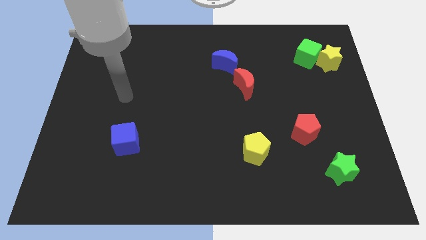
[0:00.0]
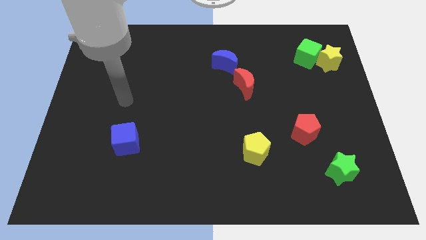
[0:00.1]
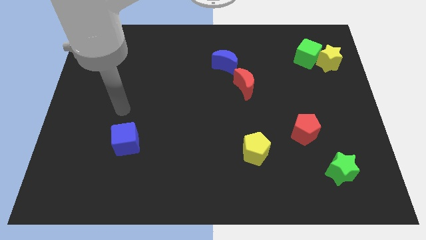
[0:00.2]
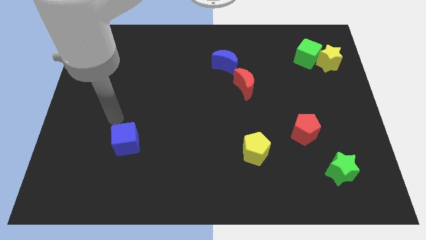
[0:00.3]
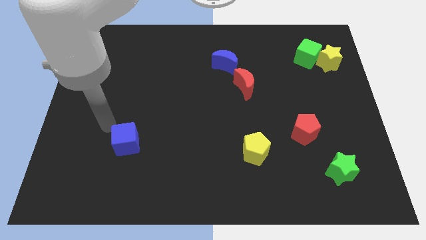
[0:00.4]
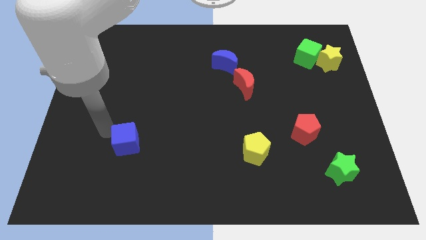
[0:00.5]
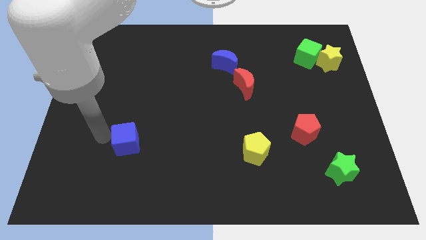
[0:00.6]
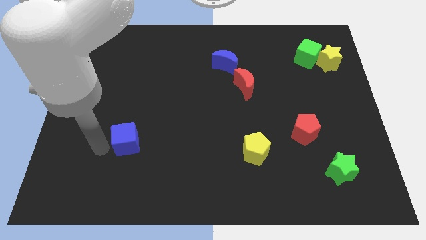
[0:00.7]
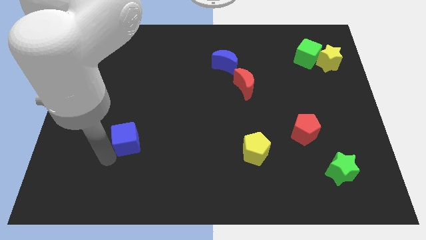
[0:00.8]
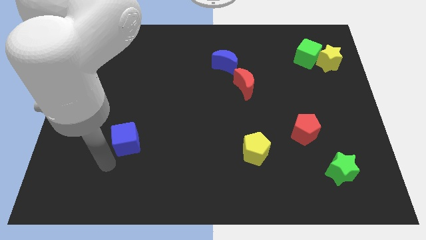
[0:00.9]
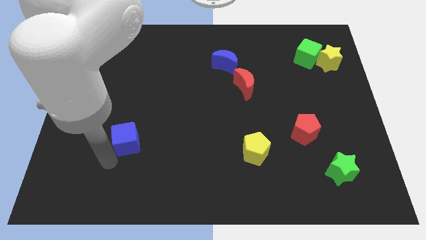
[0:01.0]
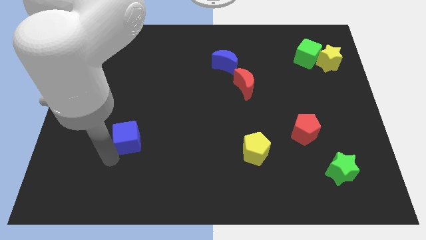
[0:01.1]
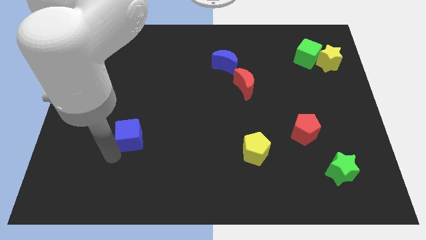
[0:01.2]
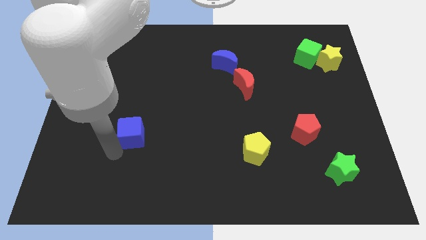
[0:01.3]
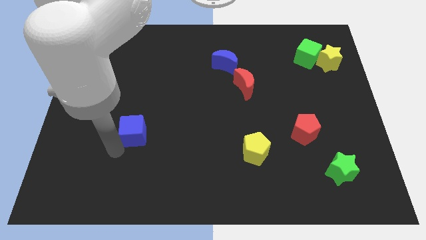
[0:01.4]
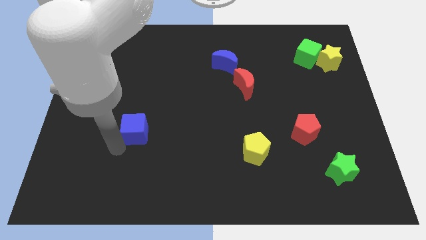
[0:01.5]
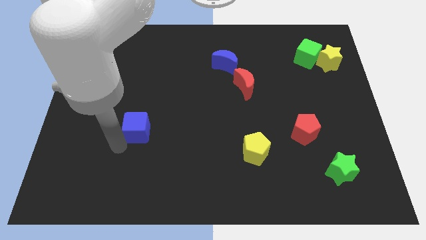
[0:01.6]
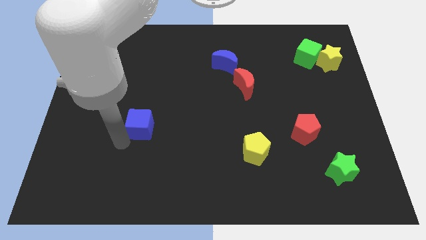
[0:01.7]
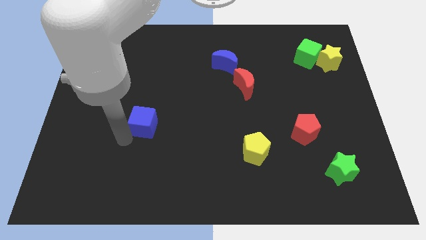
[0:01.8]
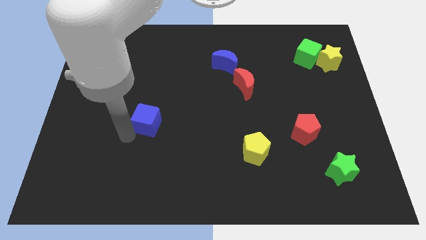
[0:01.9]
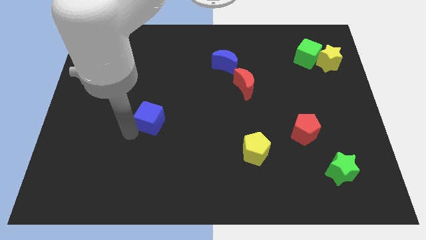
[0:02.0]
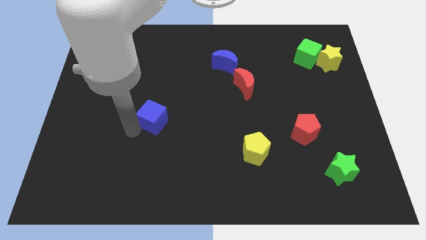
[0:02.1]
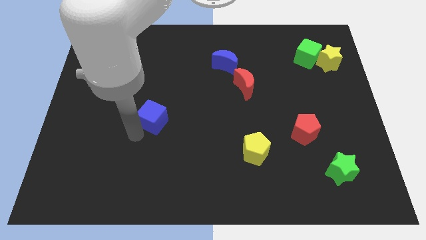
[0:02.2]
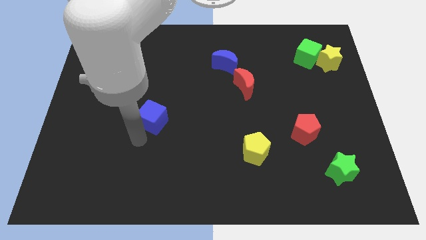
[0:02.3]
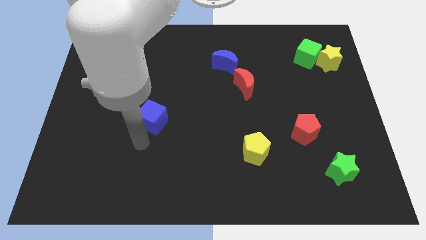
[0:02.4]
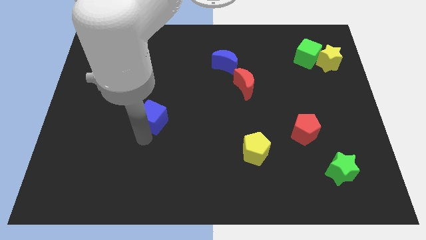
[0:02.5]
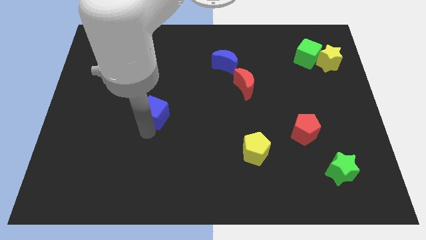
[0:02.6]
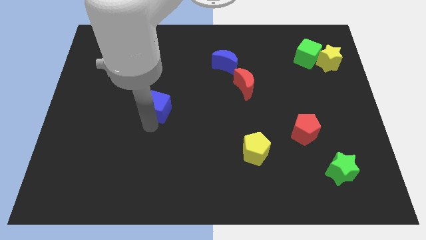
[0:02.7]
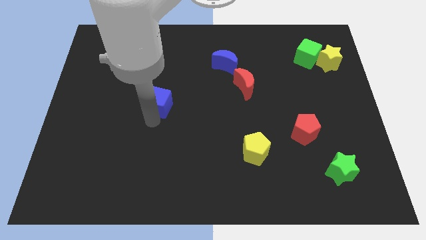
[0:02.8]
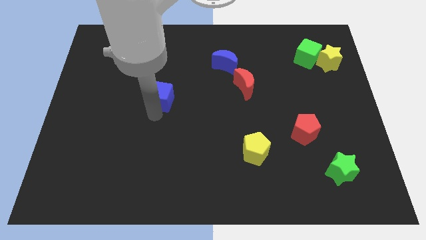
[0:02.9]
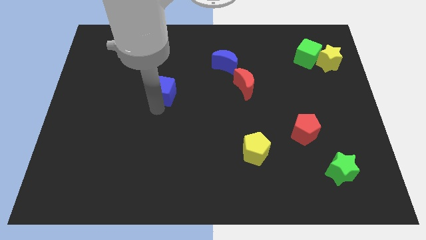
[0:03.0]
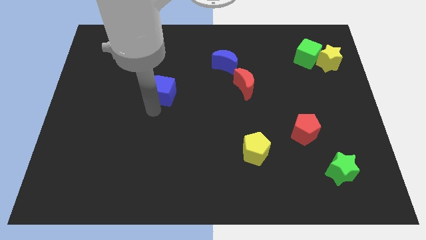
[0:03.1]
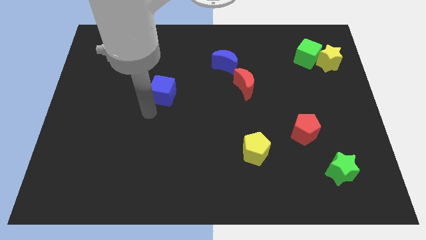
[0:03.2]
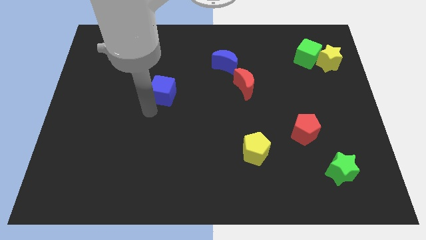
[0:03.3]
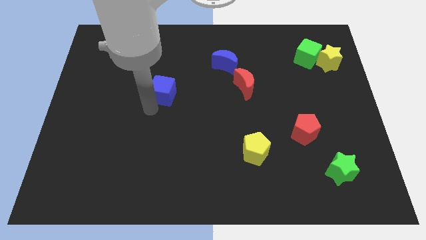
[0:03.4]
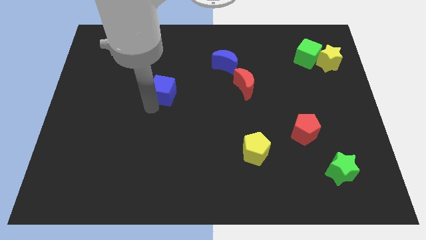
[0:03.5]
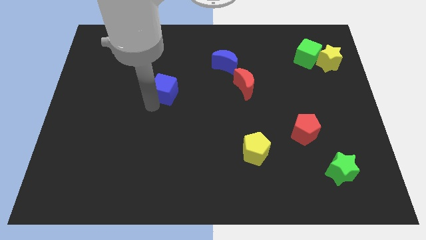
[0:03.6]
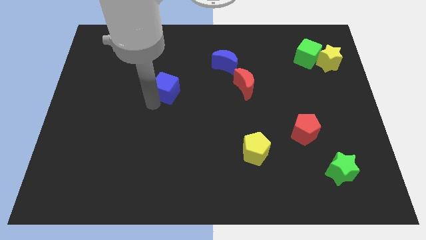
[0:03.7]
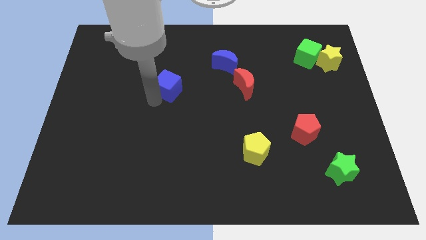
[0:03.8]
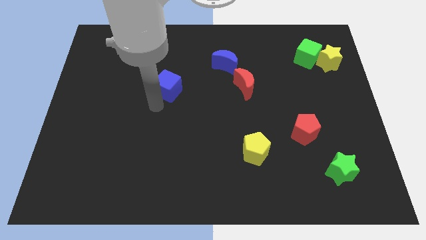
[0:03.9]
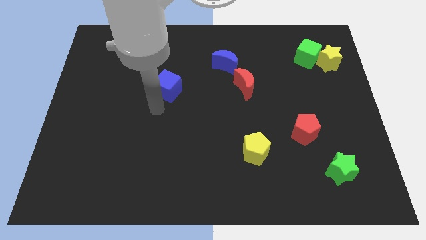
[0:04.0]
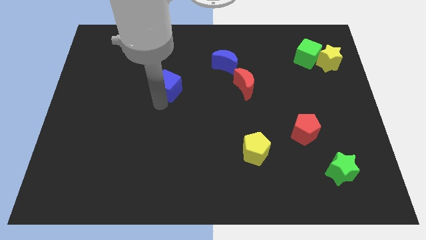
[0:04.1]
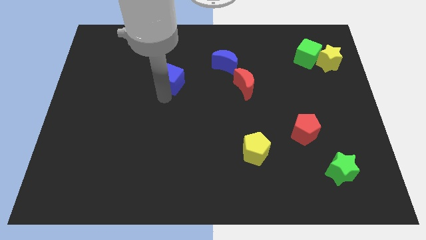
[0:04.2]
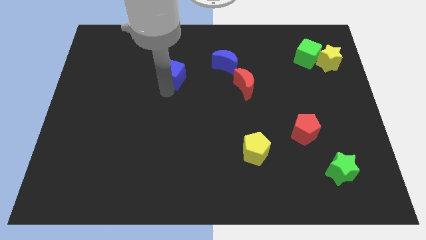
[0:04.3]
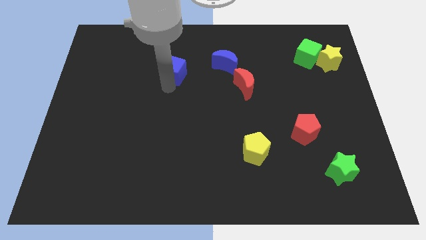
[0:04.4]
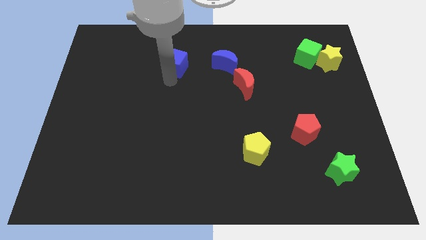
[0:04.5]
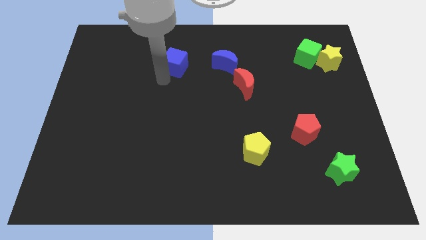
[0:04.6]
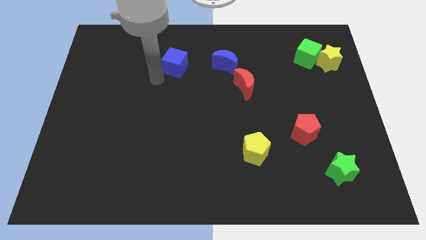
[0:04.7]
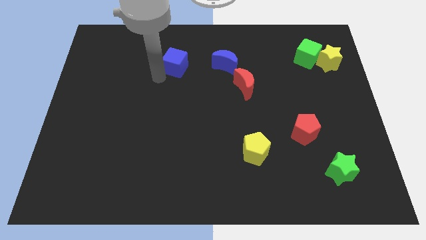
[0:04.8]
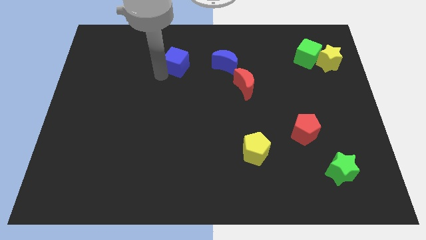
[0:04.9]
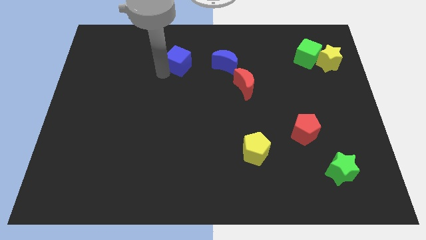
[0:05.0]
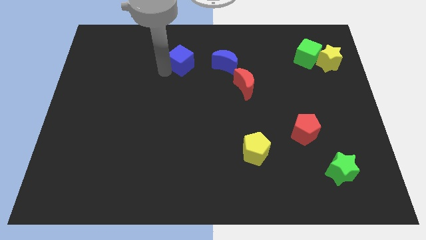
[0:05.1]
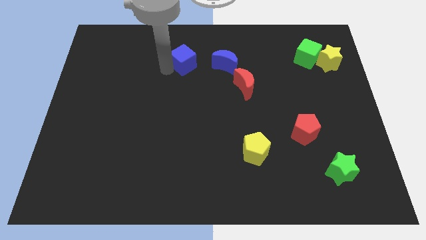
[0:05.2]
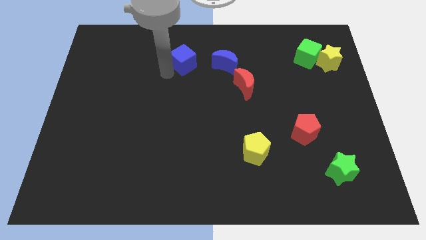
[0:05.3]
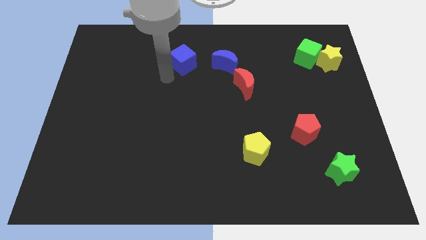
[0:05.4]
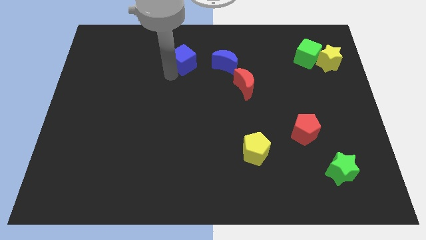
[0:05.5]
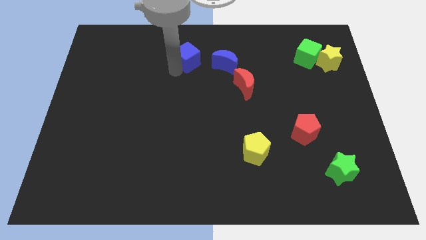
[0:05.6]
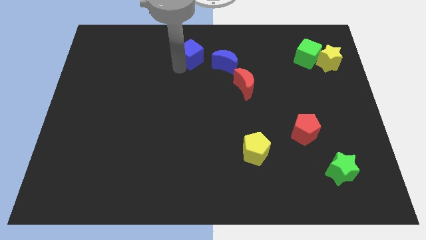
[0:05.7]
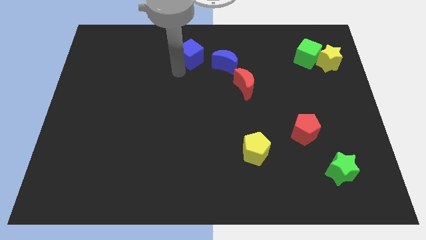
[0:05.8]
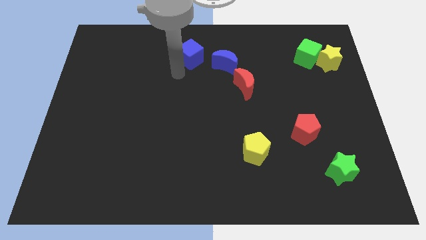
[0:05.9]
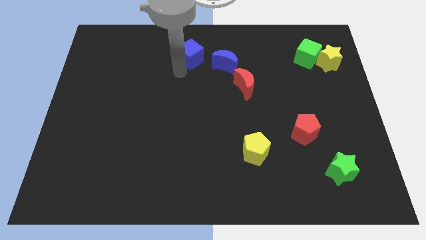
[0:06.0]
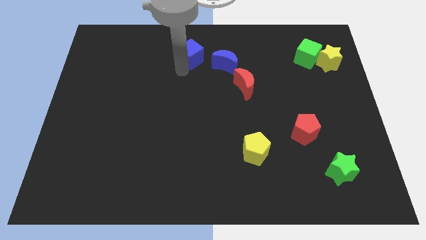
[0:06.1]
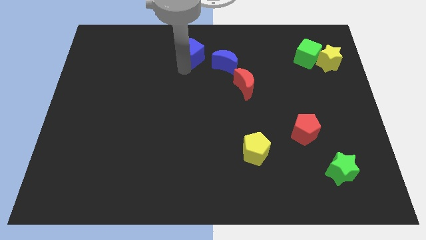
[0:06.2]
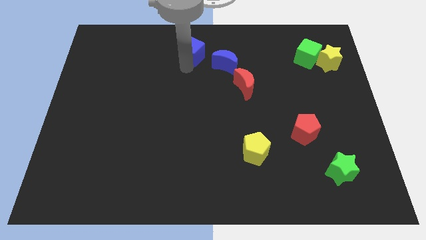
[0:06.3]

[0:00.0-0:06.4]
slide the blue cube to the towards your base

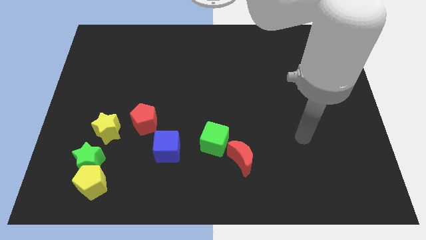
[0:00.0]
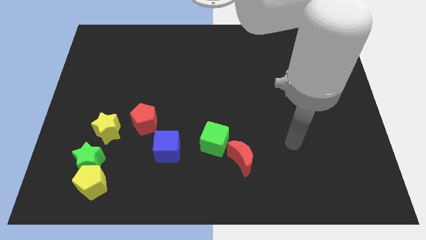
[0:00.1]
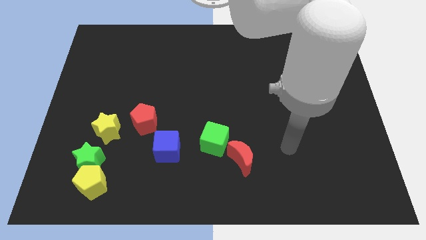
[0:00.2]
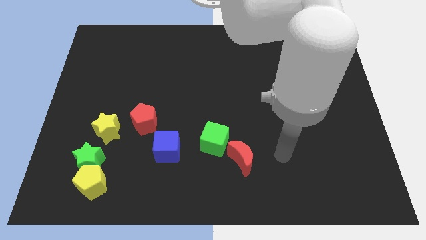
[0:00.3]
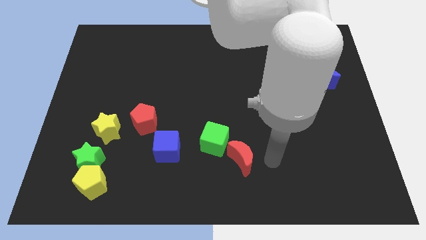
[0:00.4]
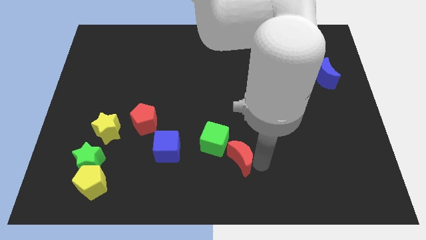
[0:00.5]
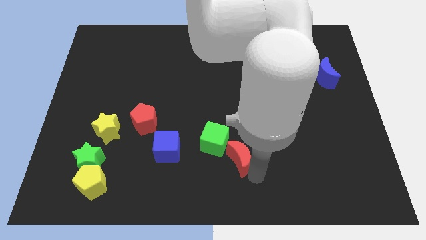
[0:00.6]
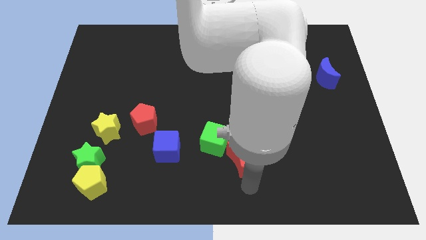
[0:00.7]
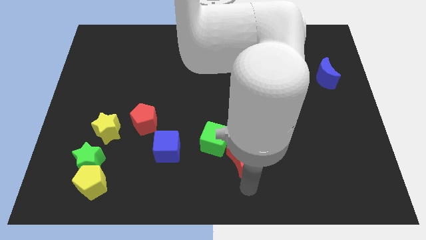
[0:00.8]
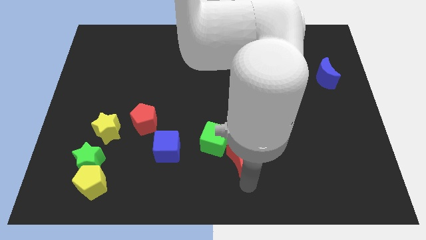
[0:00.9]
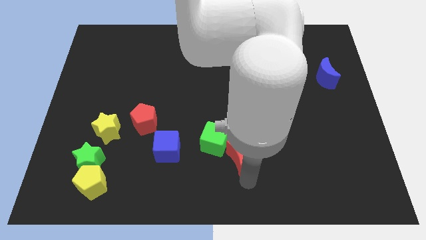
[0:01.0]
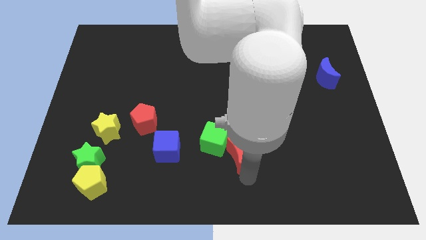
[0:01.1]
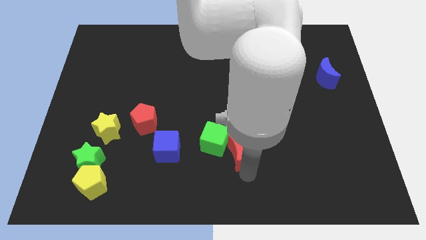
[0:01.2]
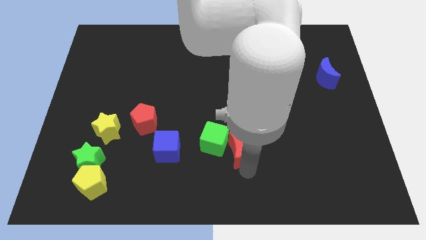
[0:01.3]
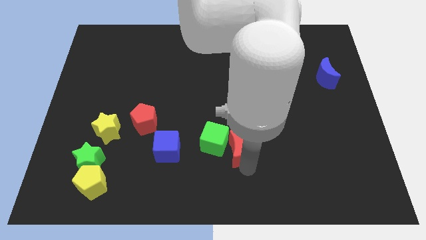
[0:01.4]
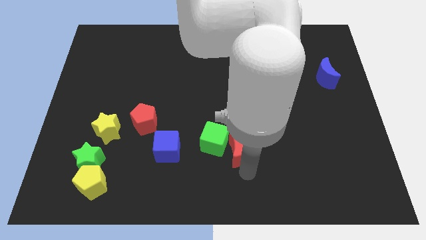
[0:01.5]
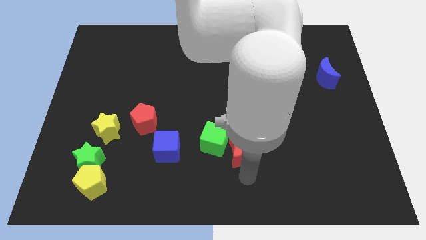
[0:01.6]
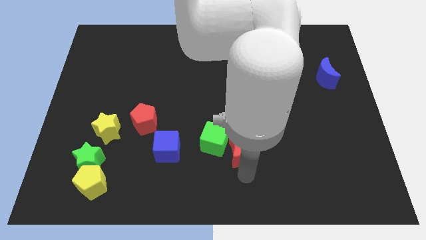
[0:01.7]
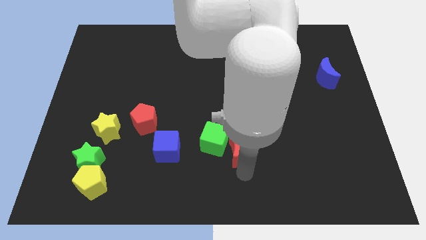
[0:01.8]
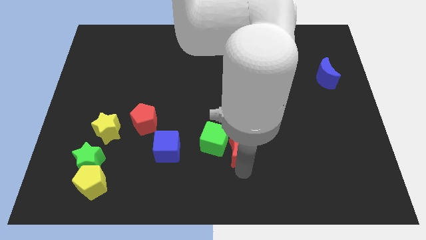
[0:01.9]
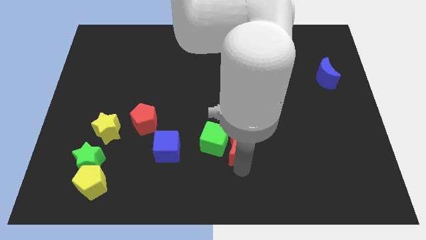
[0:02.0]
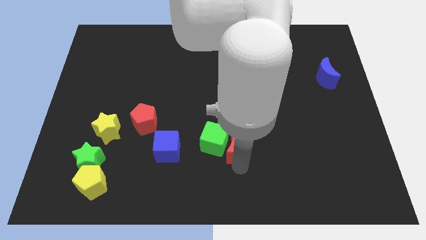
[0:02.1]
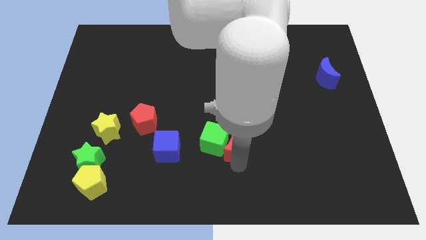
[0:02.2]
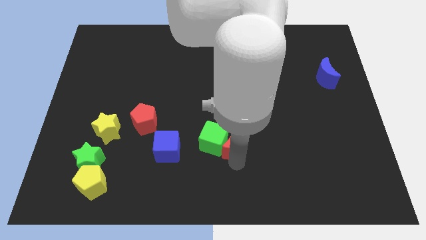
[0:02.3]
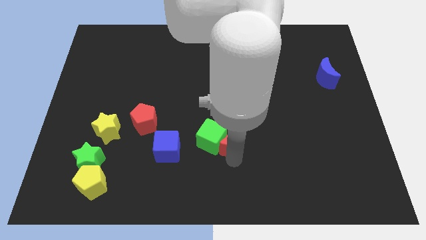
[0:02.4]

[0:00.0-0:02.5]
push the red moon to the center
